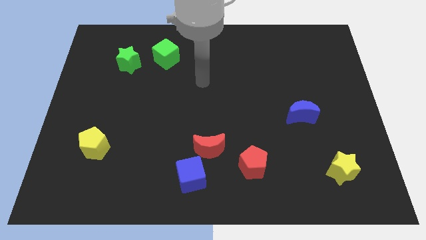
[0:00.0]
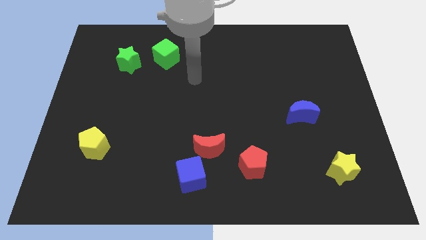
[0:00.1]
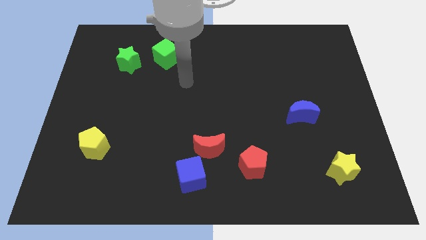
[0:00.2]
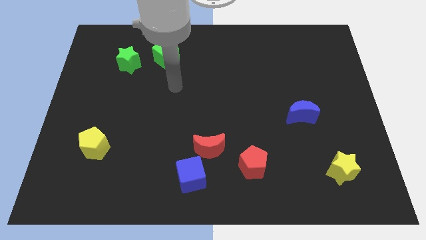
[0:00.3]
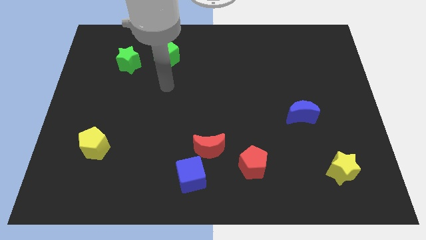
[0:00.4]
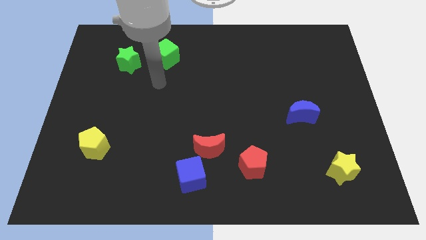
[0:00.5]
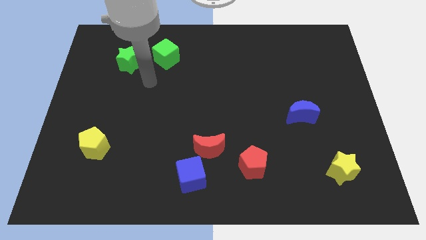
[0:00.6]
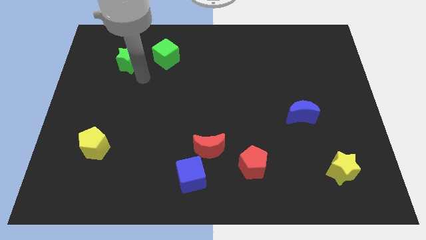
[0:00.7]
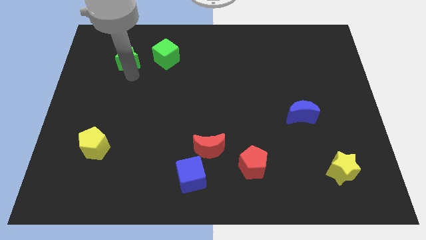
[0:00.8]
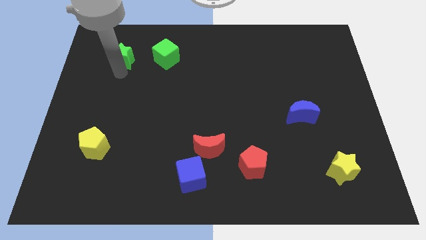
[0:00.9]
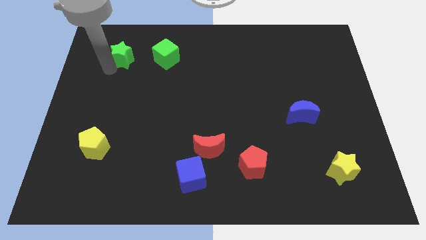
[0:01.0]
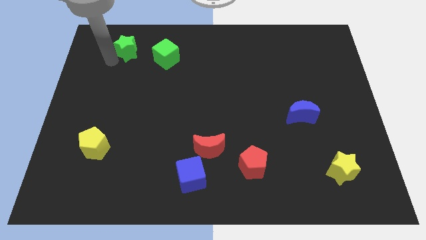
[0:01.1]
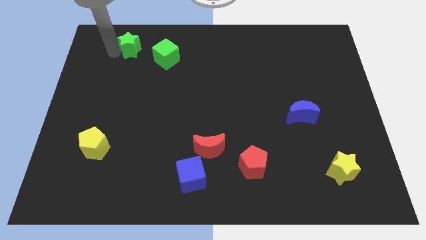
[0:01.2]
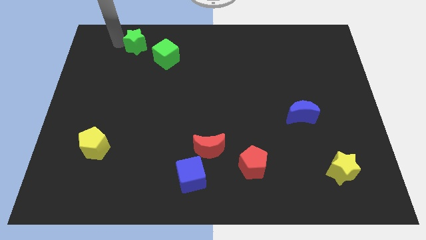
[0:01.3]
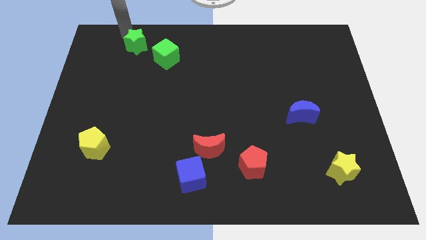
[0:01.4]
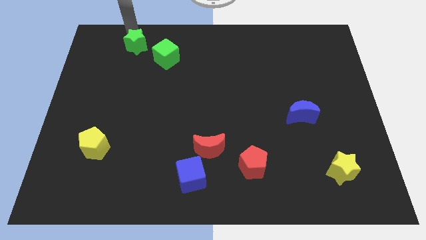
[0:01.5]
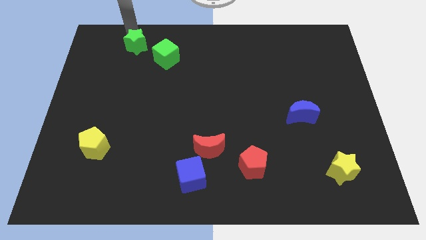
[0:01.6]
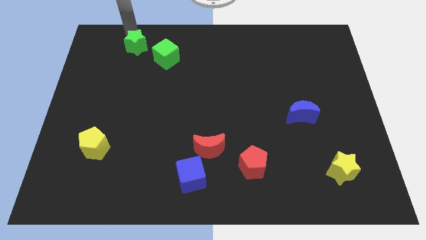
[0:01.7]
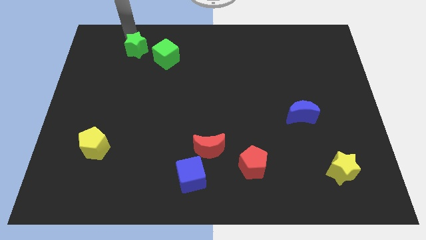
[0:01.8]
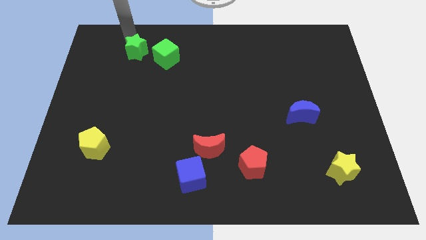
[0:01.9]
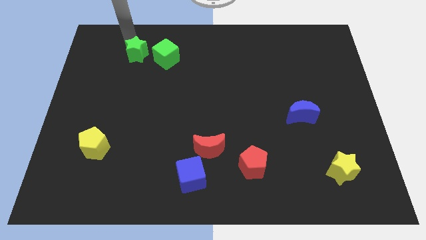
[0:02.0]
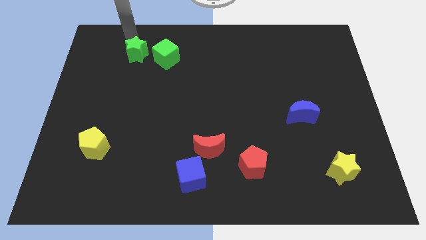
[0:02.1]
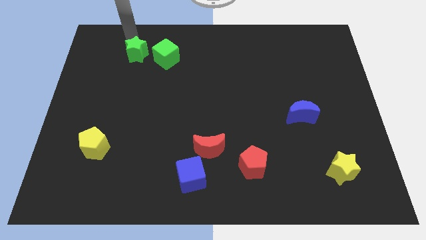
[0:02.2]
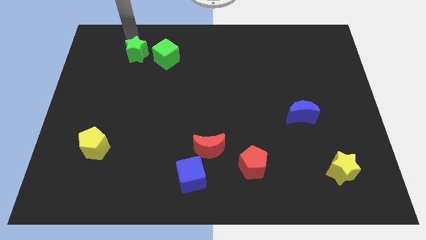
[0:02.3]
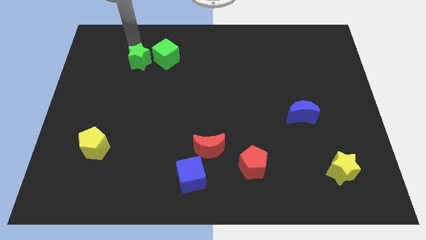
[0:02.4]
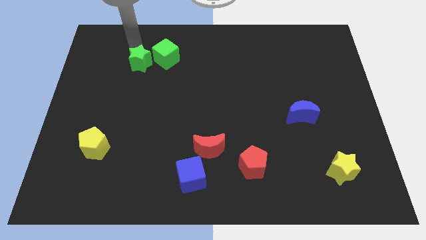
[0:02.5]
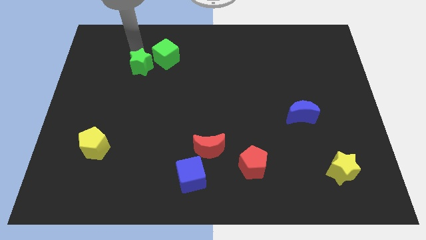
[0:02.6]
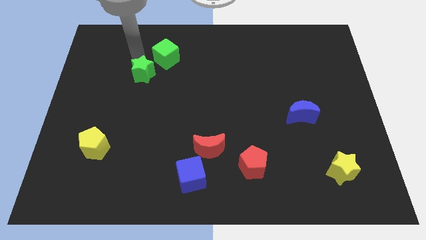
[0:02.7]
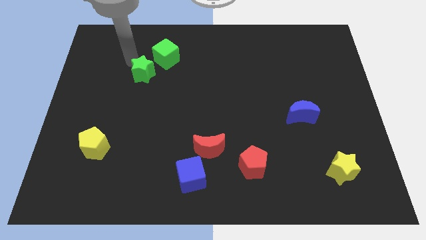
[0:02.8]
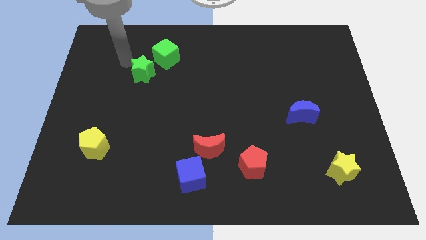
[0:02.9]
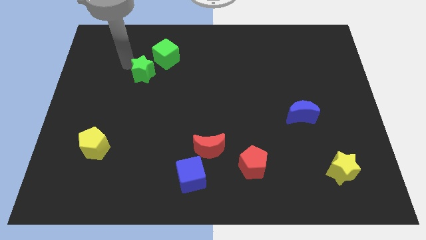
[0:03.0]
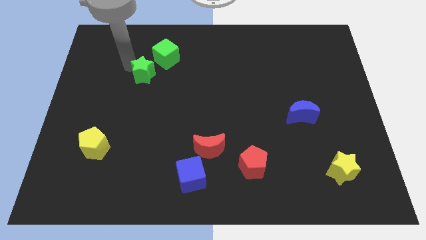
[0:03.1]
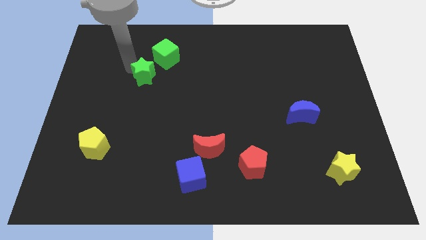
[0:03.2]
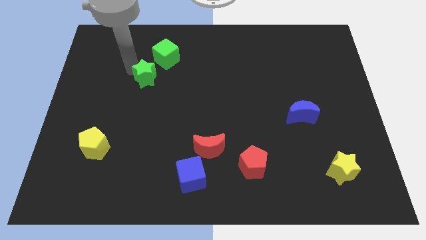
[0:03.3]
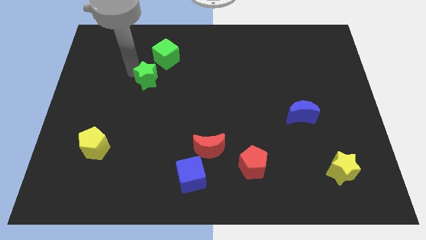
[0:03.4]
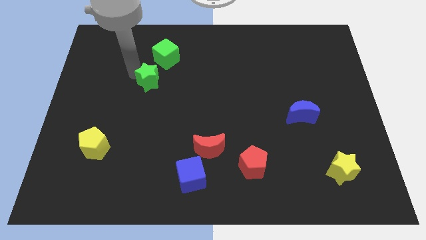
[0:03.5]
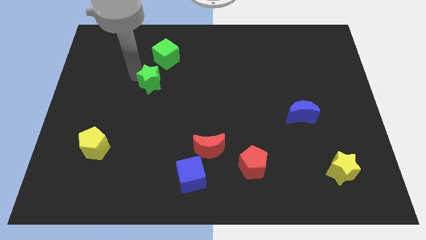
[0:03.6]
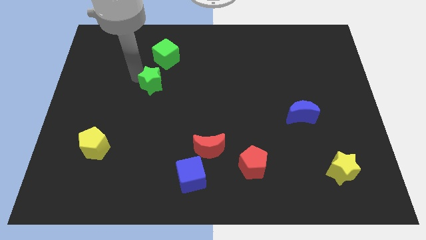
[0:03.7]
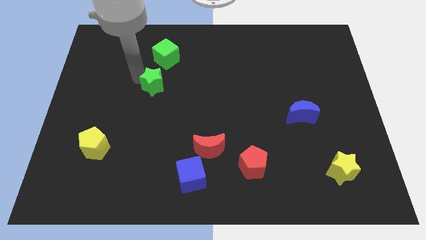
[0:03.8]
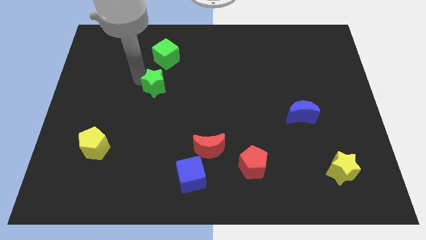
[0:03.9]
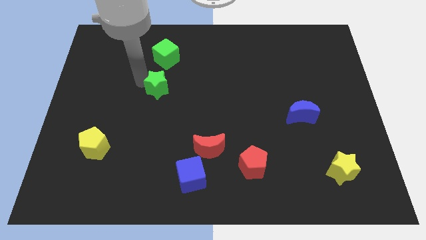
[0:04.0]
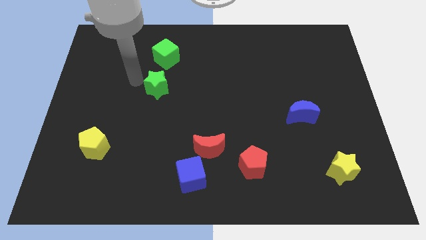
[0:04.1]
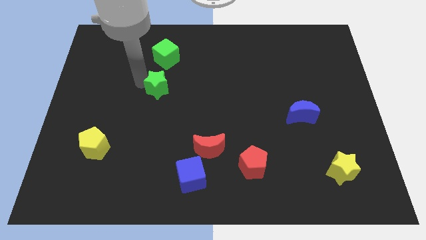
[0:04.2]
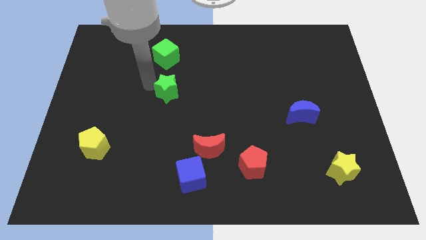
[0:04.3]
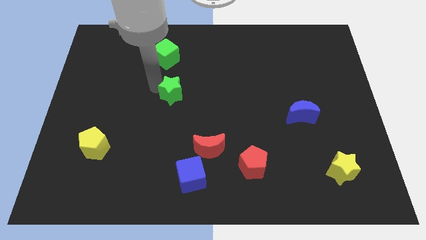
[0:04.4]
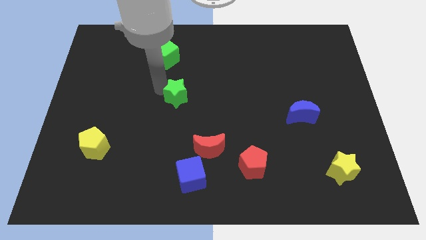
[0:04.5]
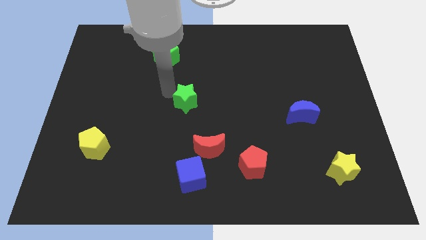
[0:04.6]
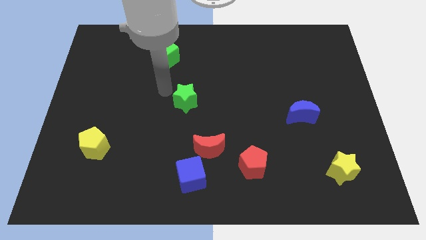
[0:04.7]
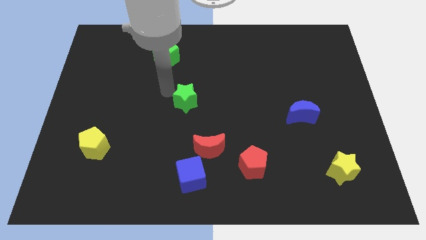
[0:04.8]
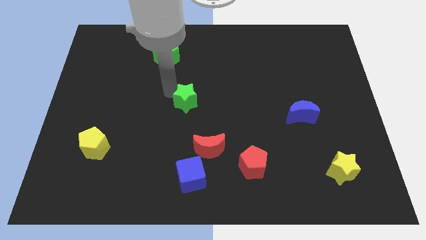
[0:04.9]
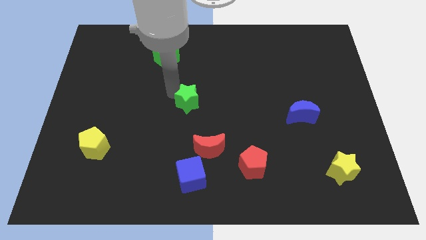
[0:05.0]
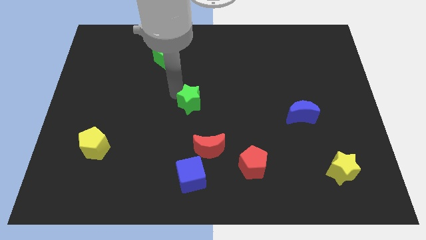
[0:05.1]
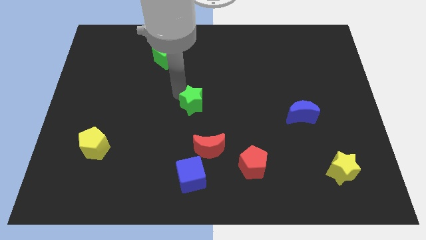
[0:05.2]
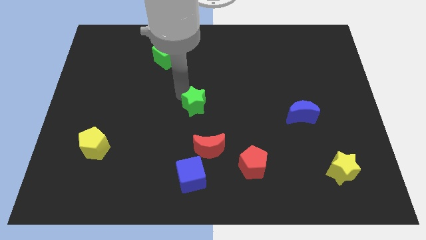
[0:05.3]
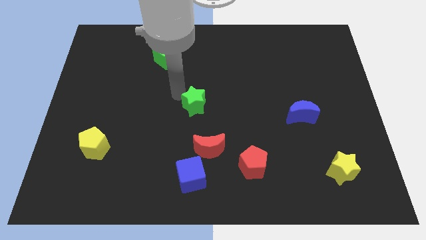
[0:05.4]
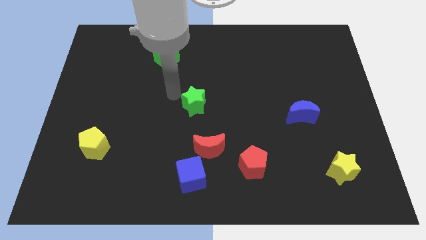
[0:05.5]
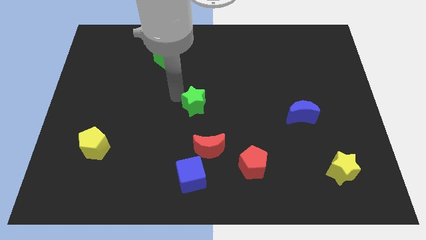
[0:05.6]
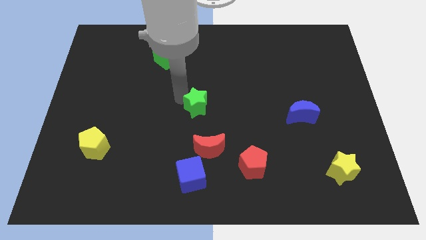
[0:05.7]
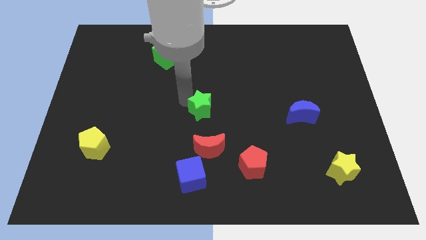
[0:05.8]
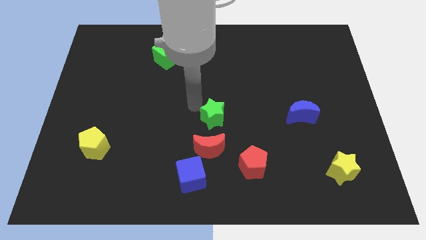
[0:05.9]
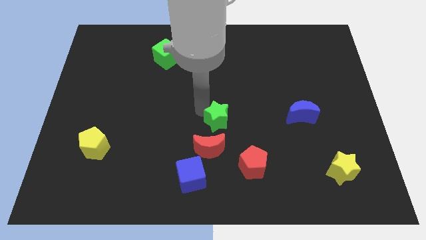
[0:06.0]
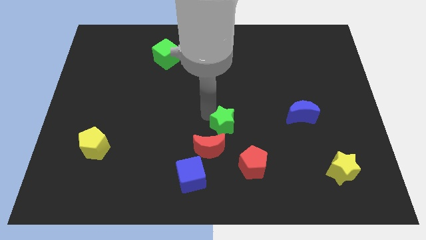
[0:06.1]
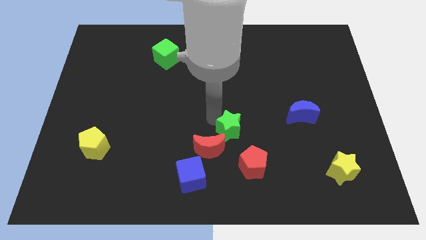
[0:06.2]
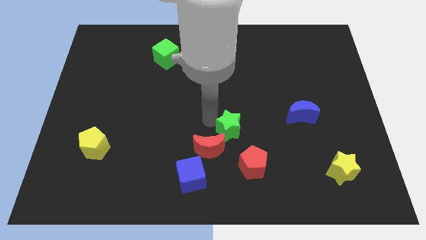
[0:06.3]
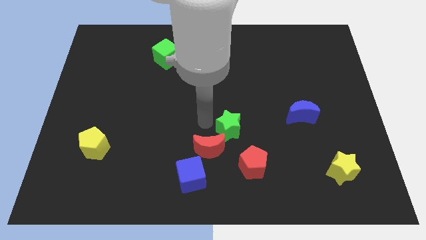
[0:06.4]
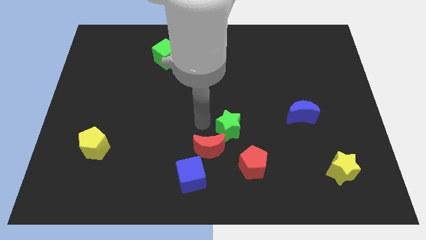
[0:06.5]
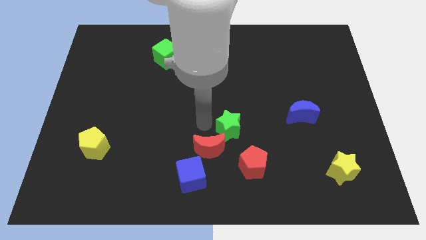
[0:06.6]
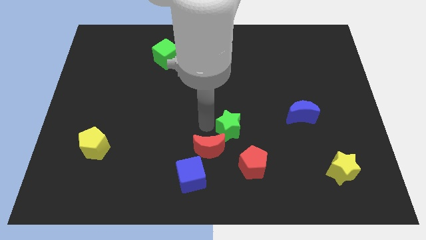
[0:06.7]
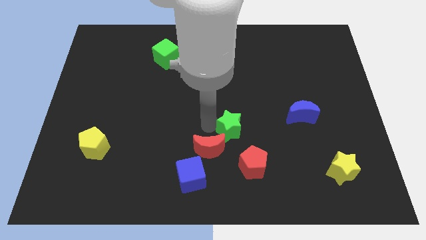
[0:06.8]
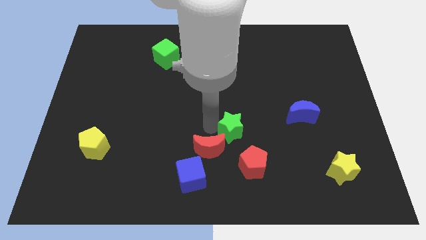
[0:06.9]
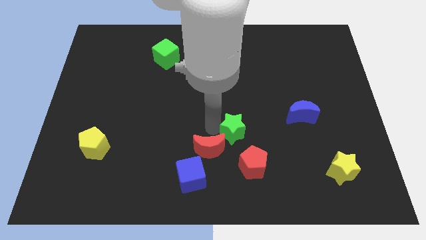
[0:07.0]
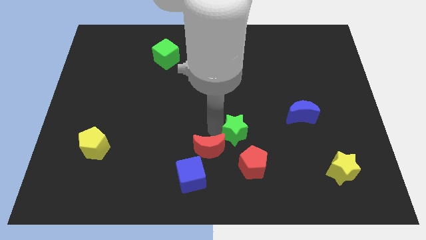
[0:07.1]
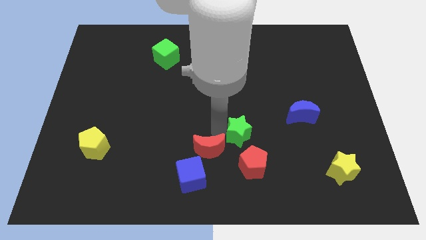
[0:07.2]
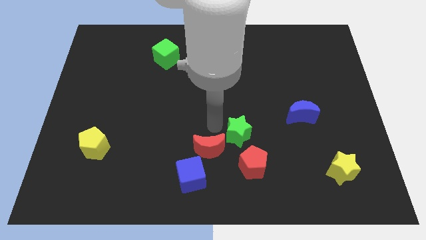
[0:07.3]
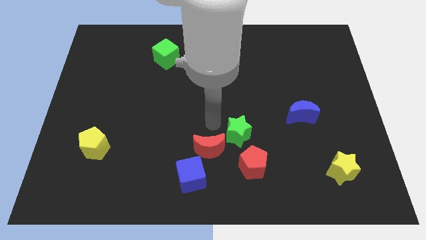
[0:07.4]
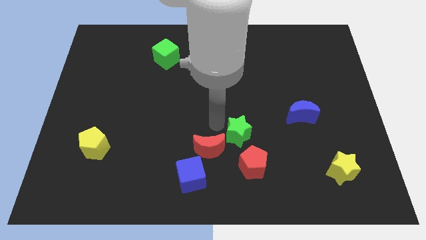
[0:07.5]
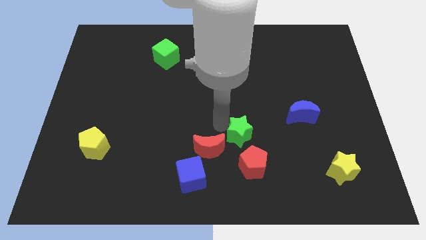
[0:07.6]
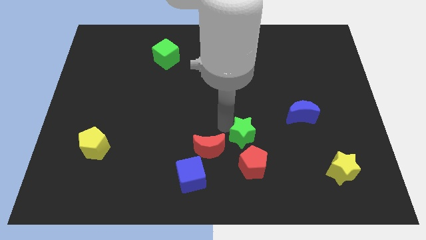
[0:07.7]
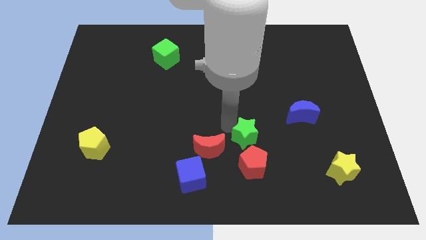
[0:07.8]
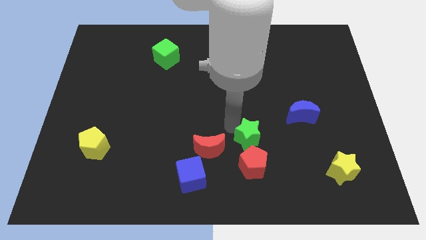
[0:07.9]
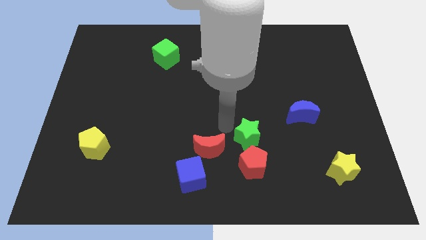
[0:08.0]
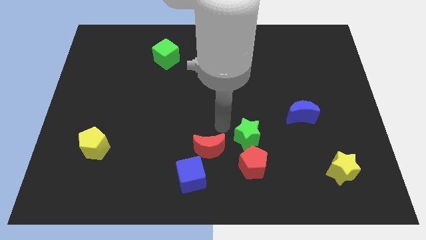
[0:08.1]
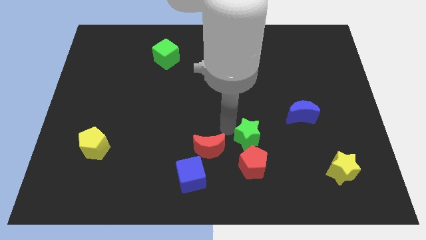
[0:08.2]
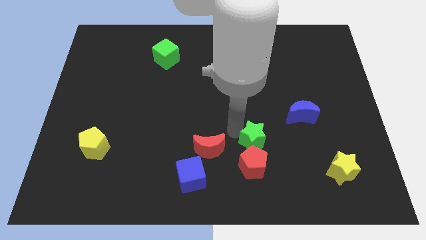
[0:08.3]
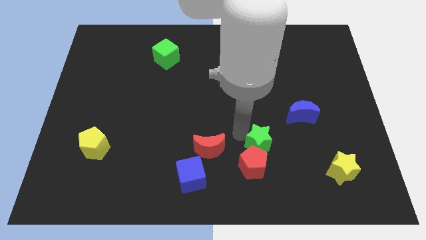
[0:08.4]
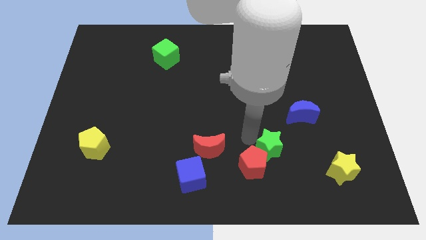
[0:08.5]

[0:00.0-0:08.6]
move the green star right of the red pentagon
